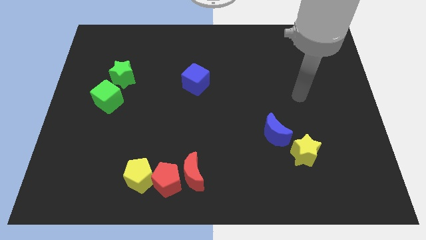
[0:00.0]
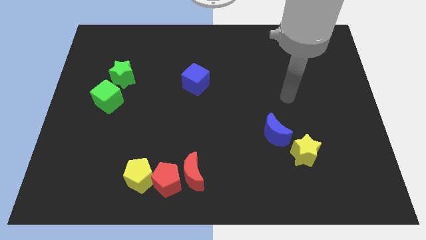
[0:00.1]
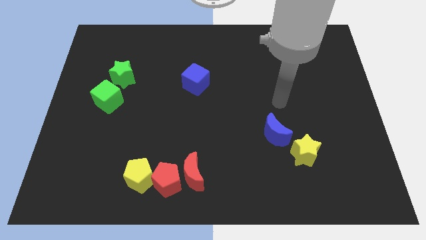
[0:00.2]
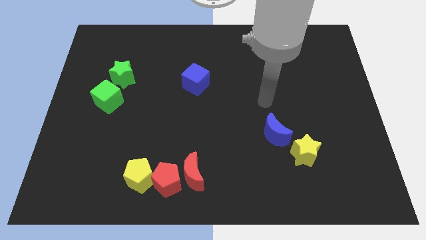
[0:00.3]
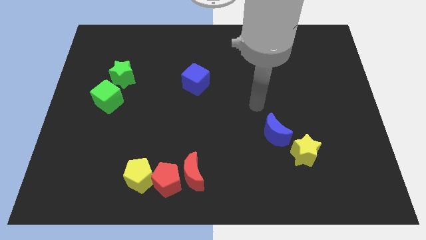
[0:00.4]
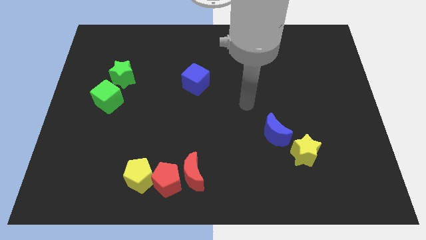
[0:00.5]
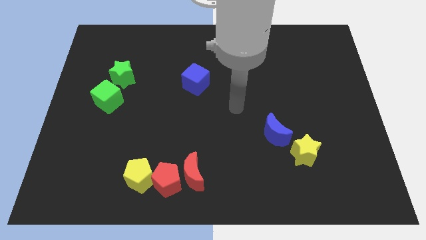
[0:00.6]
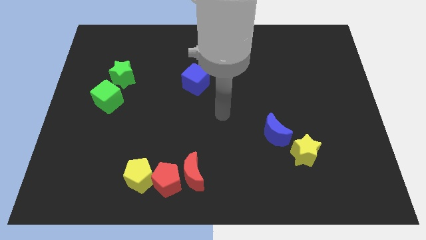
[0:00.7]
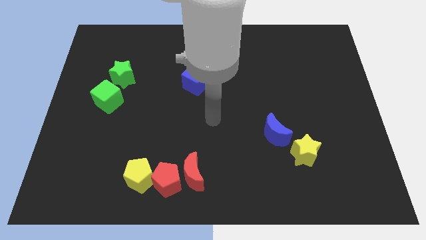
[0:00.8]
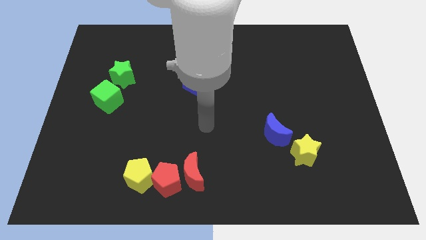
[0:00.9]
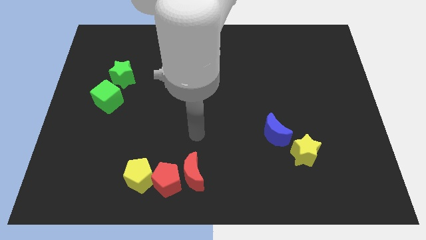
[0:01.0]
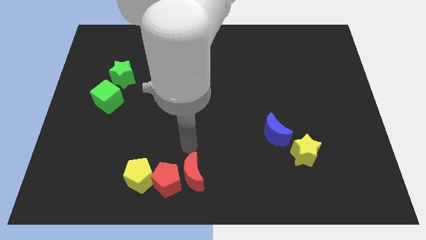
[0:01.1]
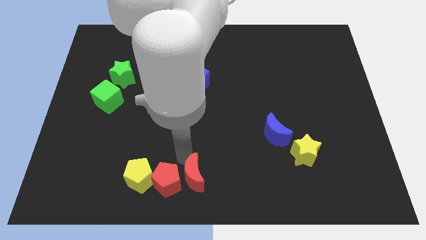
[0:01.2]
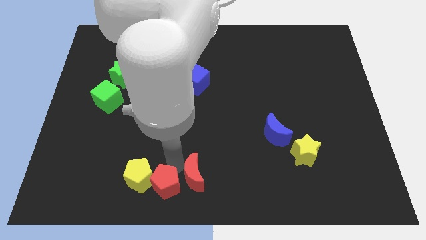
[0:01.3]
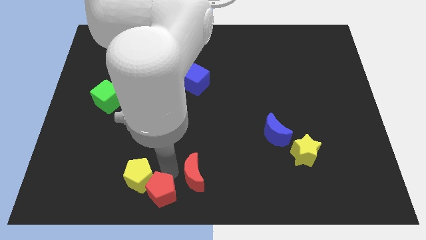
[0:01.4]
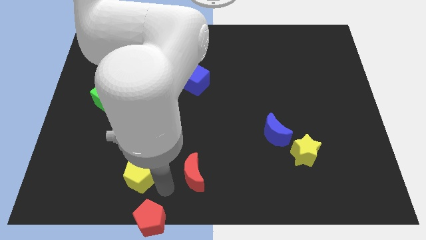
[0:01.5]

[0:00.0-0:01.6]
separate the red moon from the red pentagon

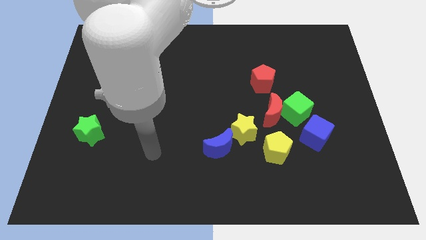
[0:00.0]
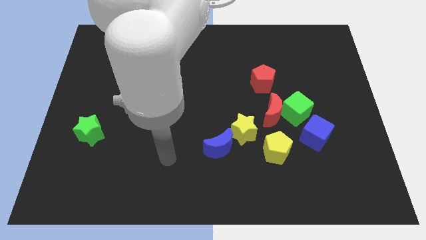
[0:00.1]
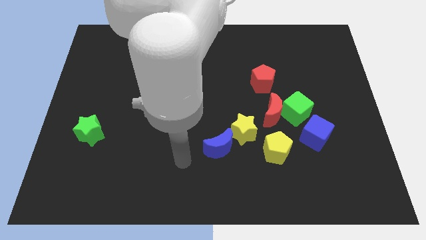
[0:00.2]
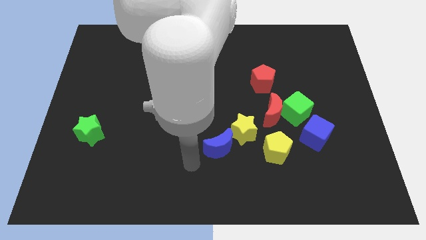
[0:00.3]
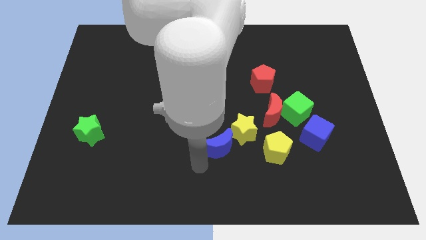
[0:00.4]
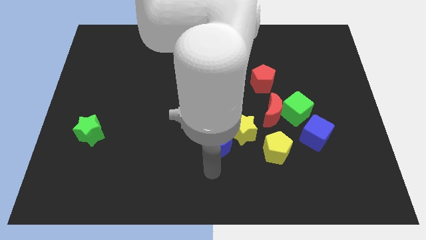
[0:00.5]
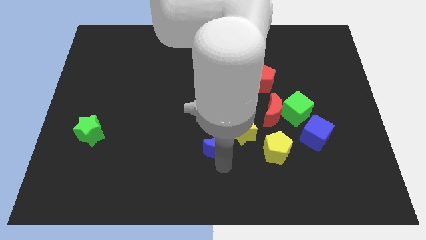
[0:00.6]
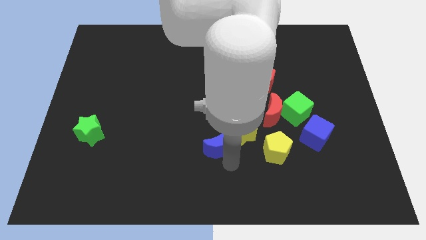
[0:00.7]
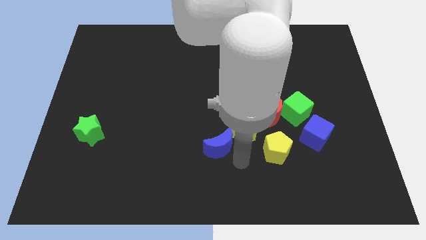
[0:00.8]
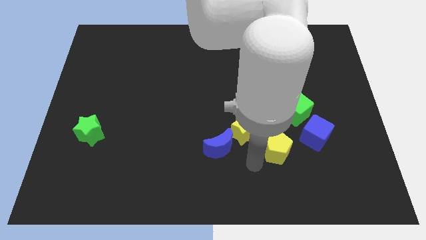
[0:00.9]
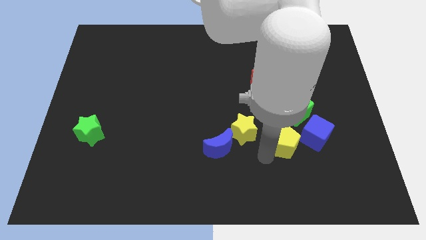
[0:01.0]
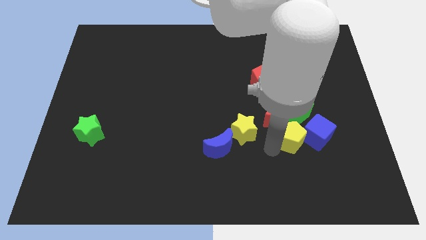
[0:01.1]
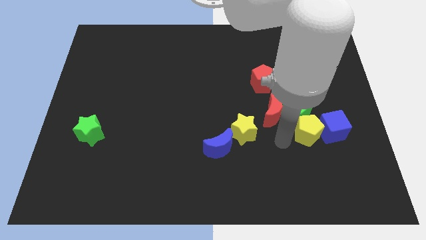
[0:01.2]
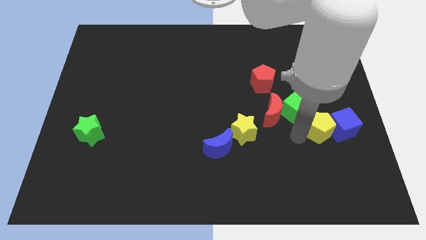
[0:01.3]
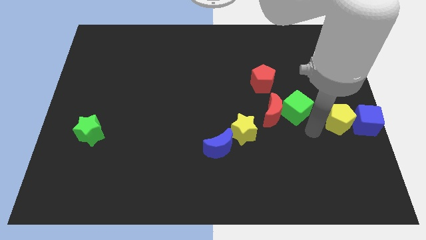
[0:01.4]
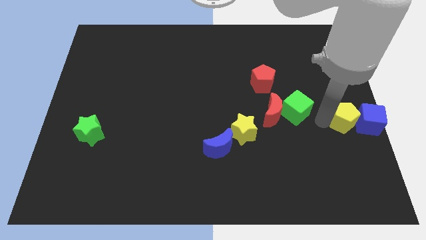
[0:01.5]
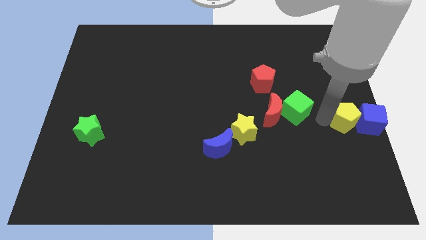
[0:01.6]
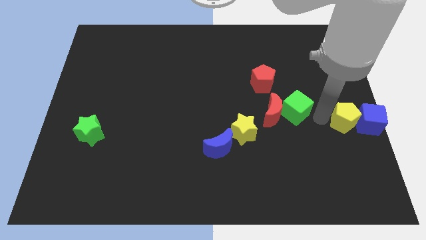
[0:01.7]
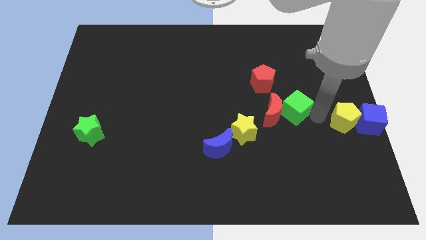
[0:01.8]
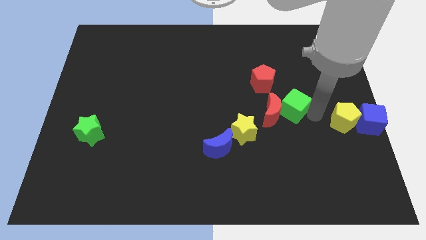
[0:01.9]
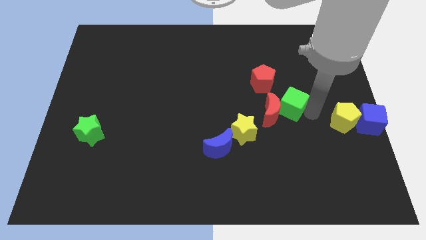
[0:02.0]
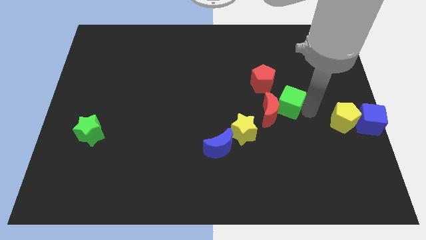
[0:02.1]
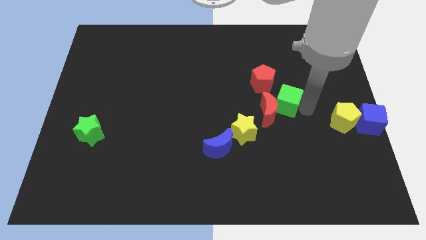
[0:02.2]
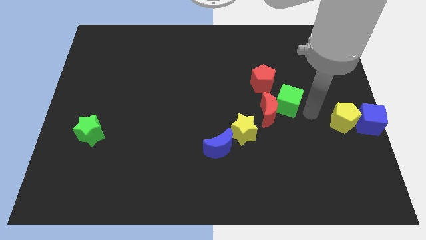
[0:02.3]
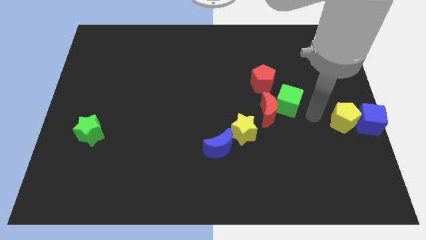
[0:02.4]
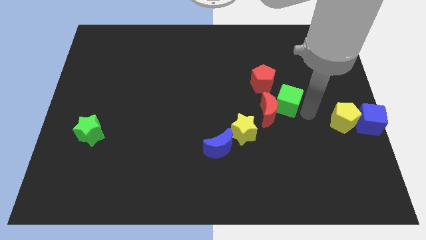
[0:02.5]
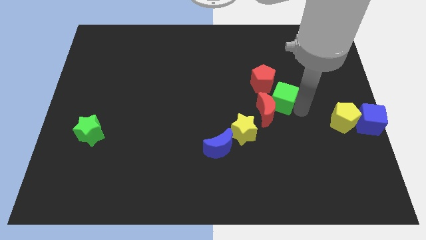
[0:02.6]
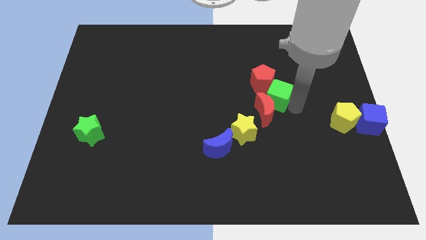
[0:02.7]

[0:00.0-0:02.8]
separate the green cube from the red moon and blue cube

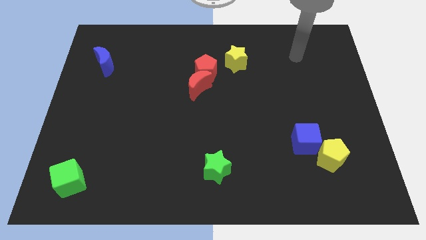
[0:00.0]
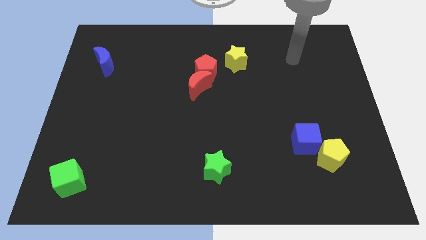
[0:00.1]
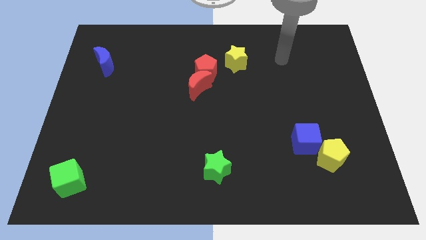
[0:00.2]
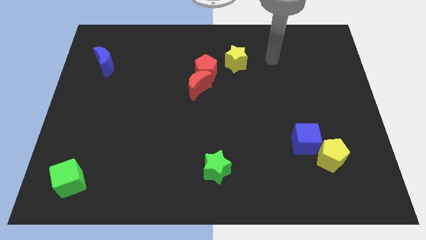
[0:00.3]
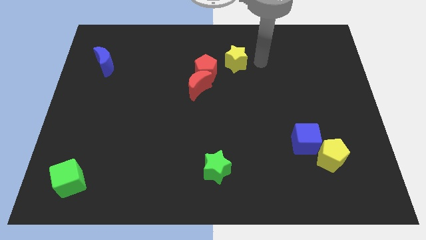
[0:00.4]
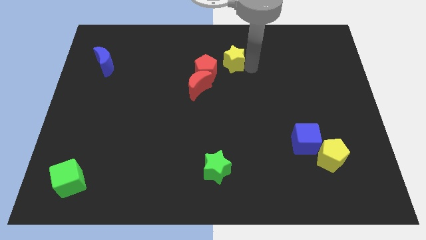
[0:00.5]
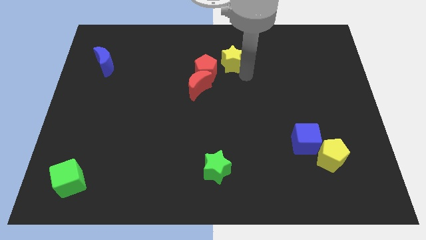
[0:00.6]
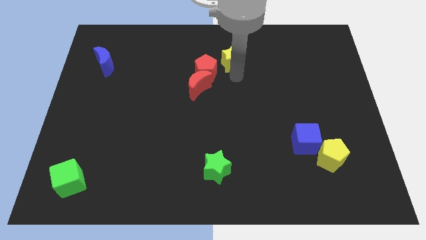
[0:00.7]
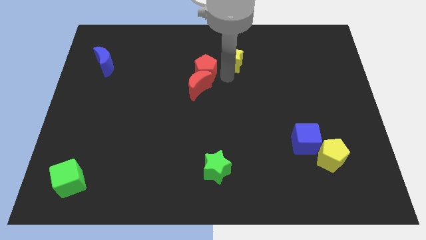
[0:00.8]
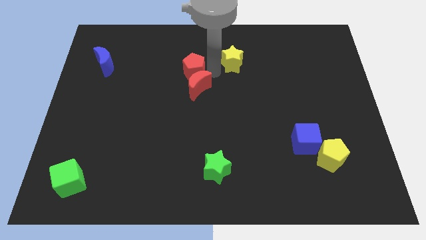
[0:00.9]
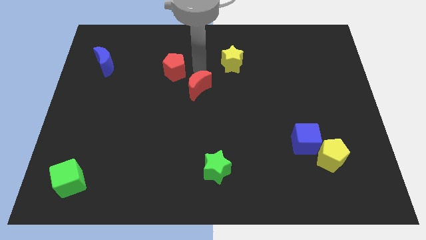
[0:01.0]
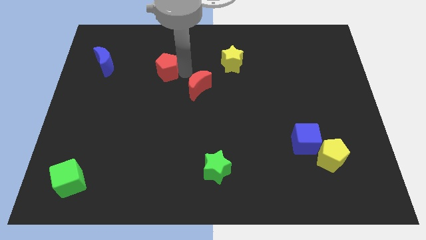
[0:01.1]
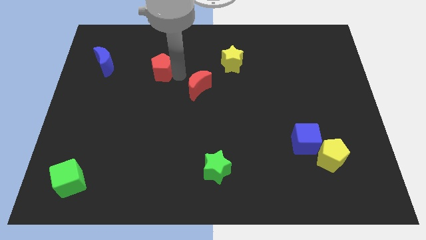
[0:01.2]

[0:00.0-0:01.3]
move the red moon away from the red pentagon

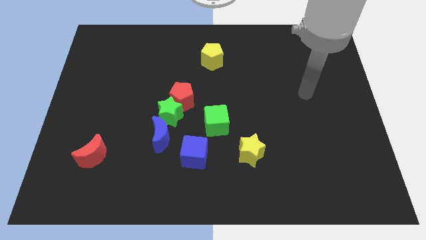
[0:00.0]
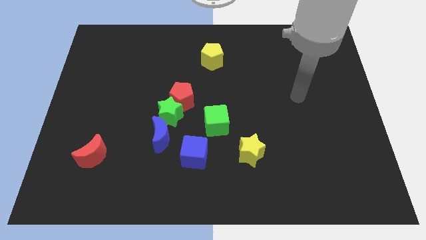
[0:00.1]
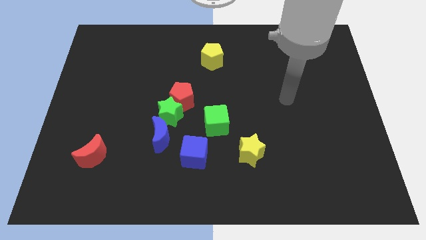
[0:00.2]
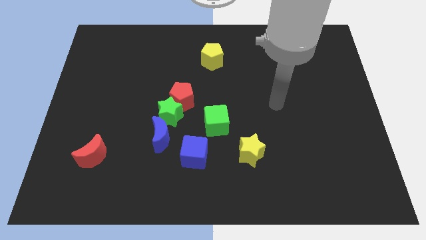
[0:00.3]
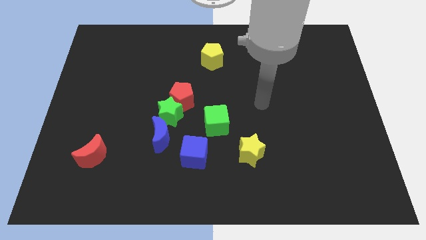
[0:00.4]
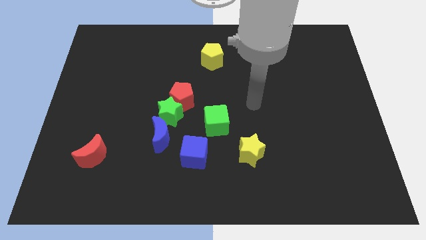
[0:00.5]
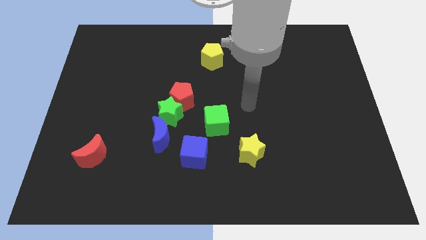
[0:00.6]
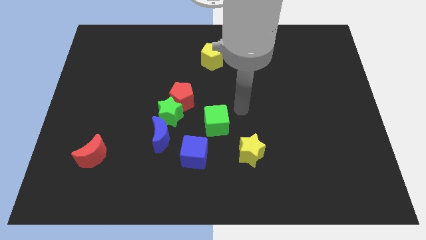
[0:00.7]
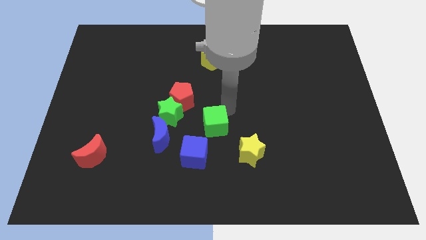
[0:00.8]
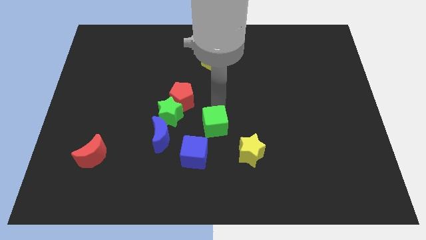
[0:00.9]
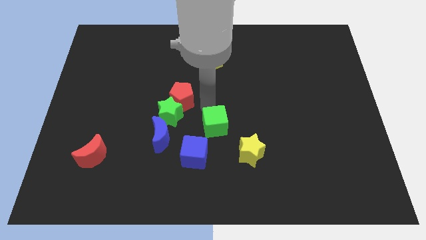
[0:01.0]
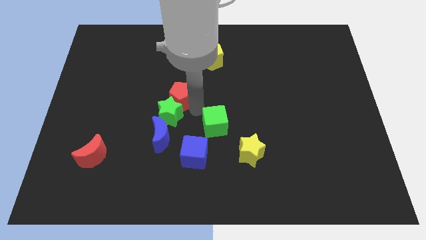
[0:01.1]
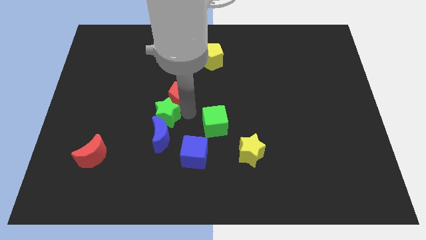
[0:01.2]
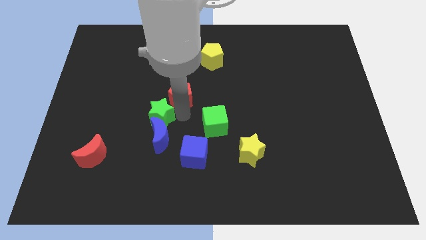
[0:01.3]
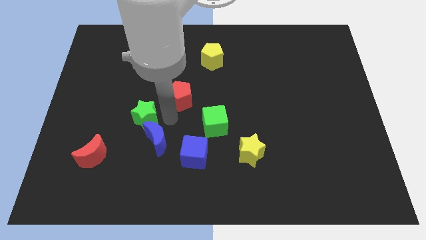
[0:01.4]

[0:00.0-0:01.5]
move the red pentagon away from the green star

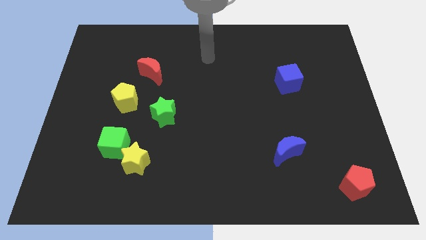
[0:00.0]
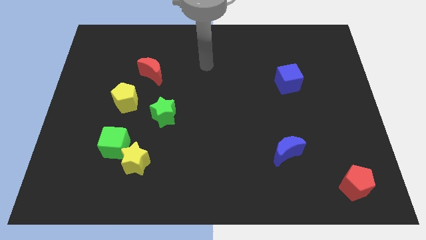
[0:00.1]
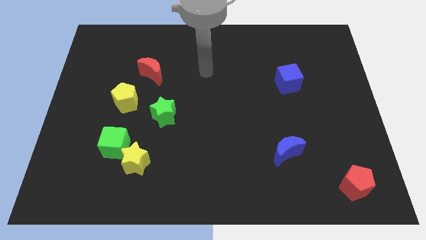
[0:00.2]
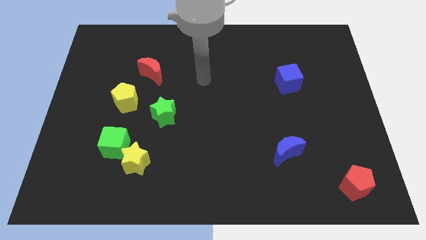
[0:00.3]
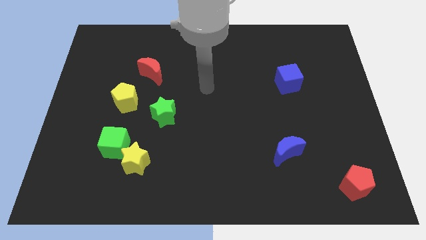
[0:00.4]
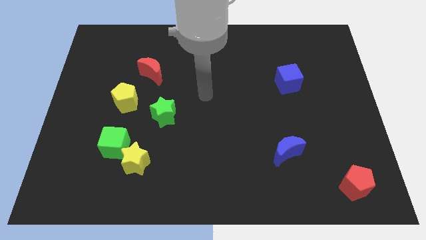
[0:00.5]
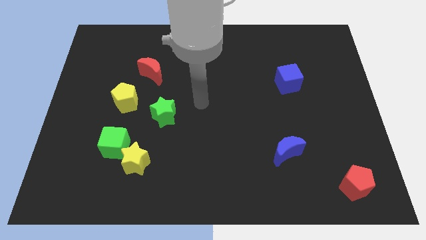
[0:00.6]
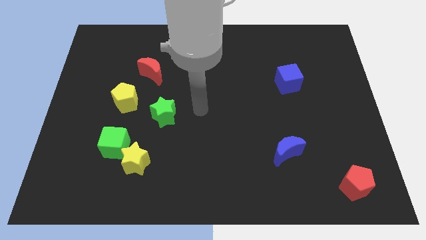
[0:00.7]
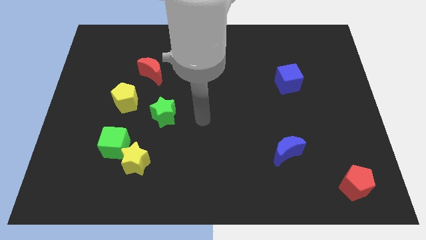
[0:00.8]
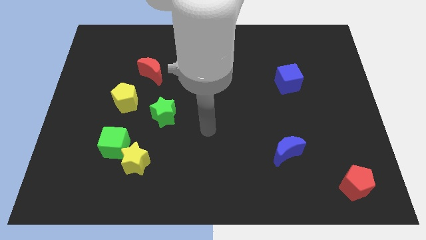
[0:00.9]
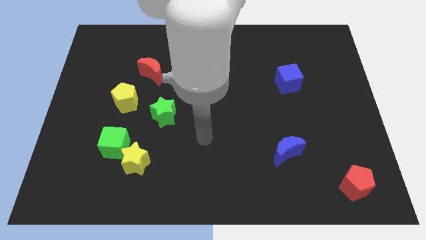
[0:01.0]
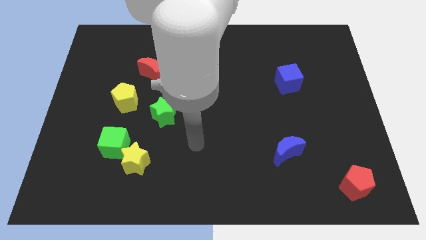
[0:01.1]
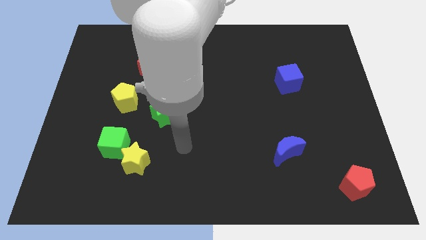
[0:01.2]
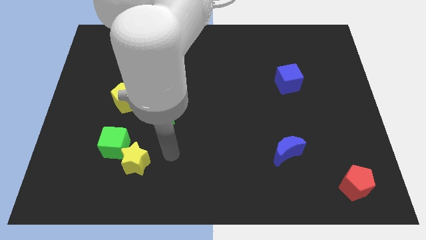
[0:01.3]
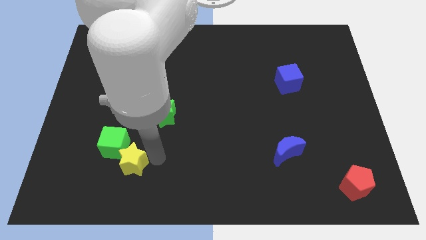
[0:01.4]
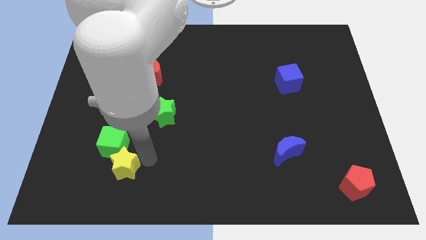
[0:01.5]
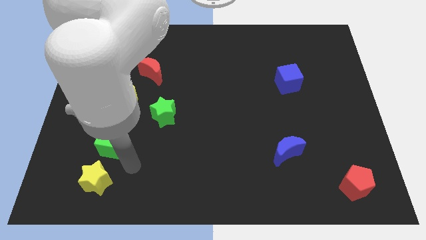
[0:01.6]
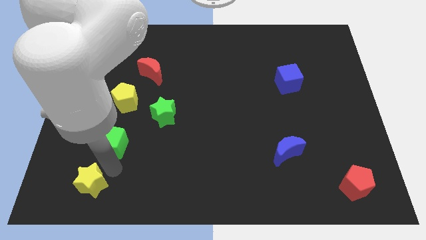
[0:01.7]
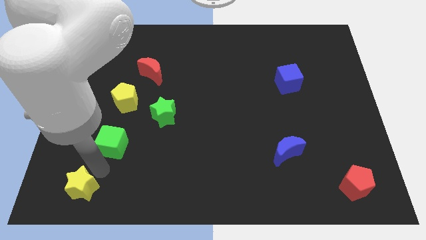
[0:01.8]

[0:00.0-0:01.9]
separate the green cube from the yellow star

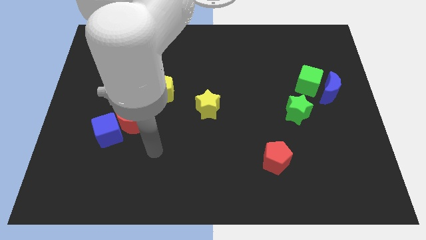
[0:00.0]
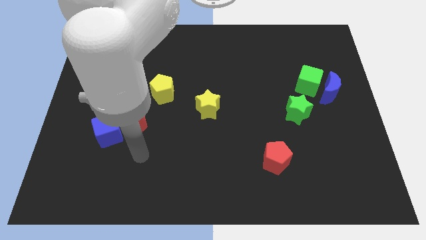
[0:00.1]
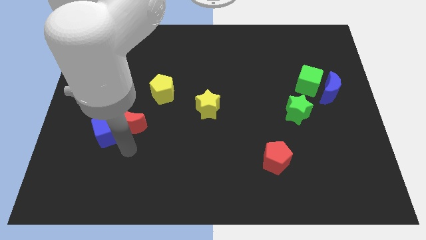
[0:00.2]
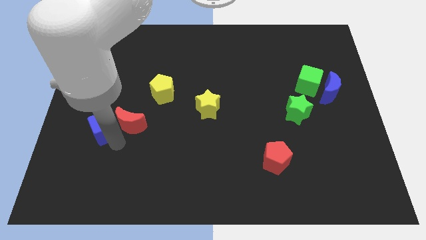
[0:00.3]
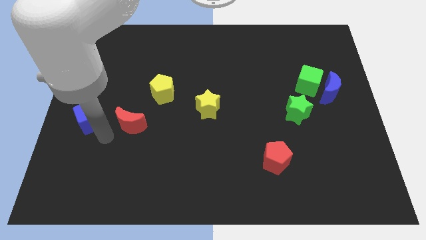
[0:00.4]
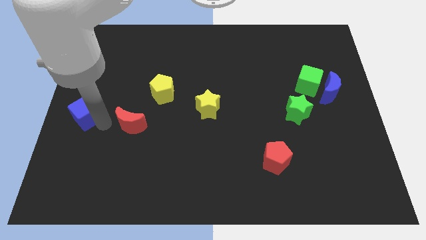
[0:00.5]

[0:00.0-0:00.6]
pull the red moon apart from the blue cube
